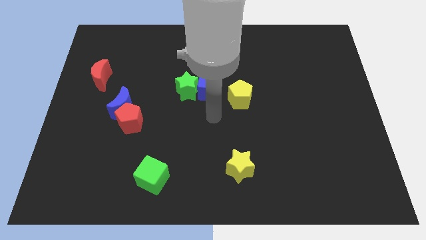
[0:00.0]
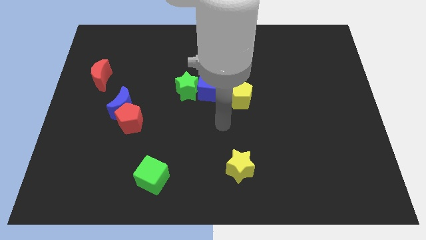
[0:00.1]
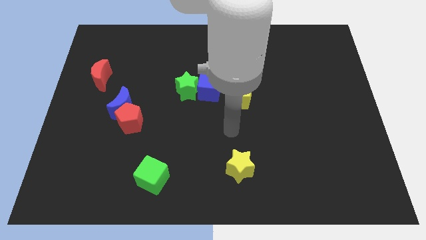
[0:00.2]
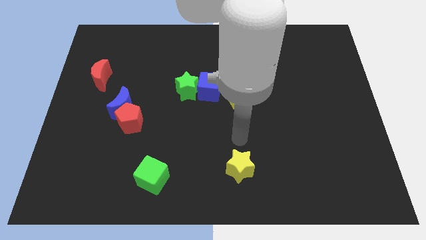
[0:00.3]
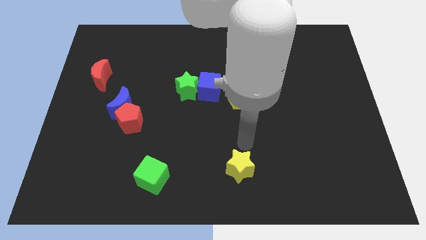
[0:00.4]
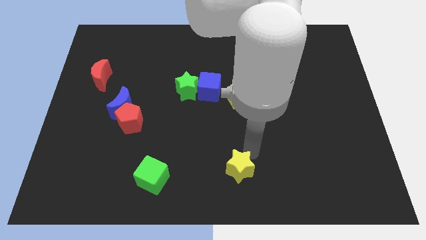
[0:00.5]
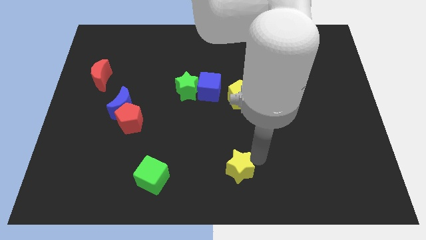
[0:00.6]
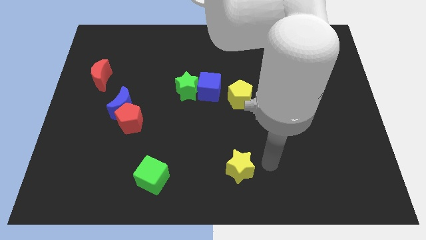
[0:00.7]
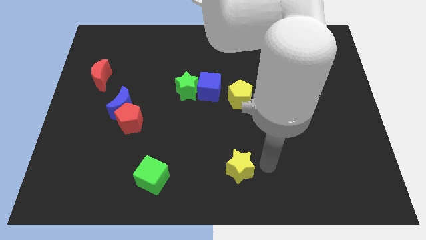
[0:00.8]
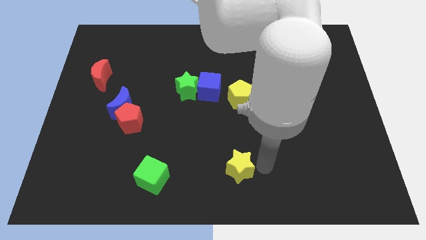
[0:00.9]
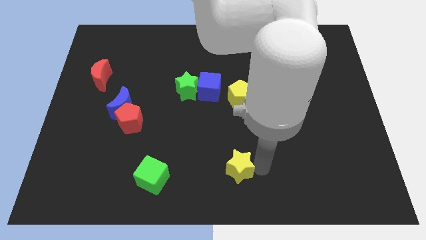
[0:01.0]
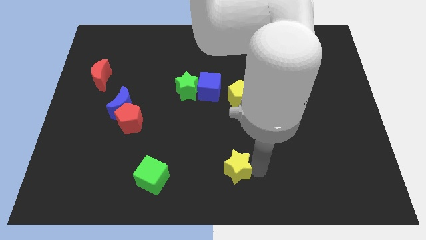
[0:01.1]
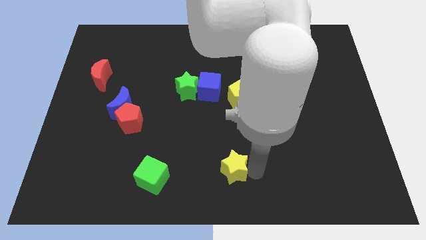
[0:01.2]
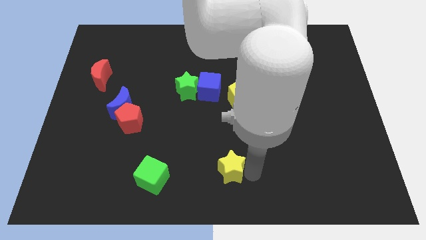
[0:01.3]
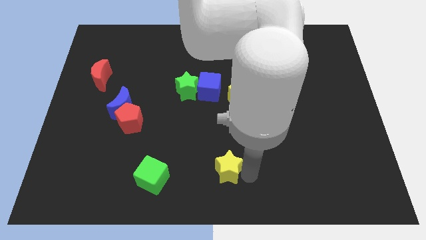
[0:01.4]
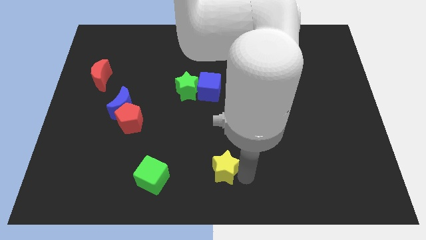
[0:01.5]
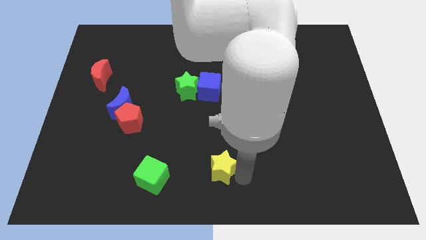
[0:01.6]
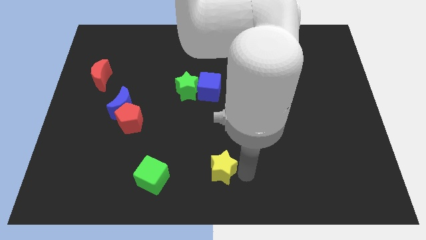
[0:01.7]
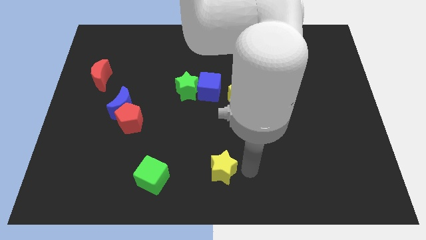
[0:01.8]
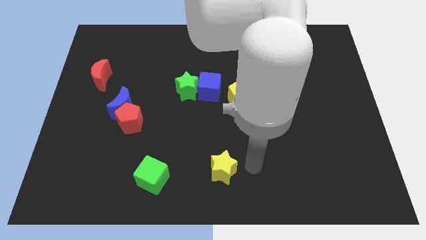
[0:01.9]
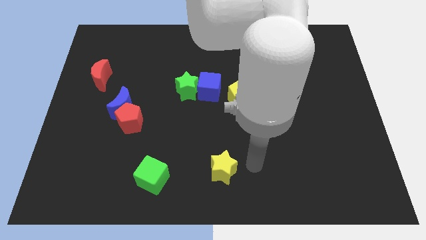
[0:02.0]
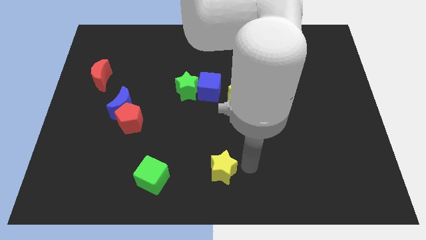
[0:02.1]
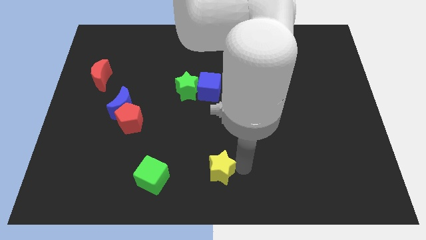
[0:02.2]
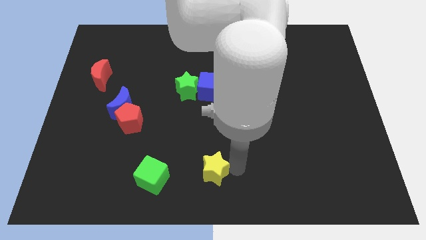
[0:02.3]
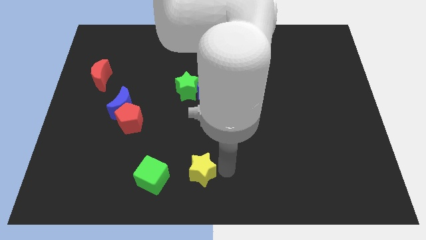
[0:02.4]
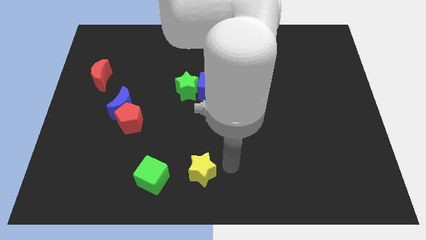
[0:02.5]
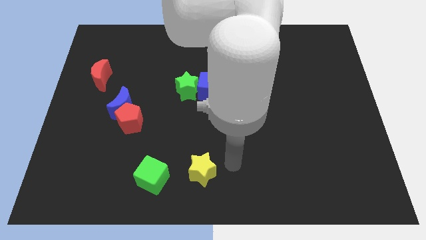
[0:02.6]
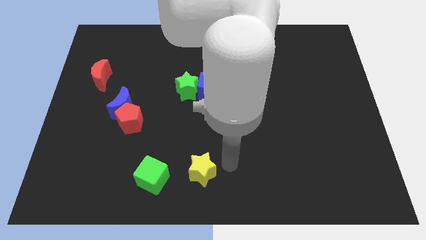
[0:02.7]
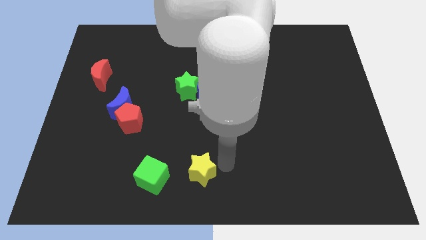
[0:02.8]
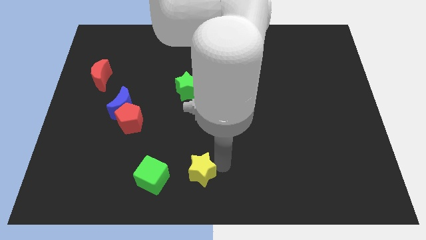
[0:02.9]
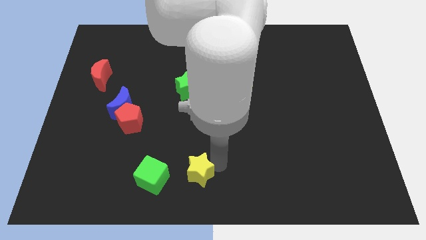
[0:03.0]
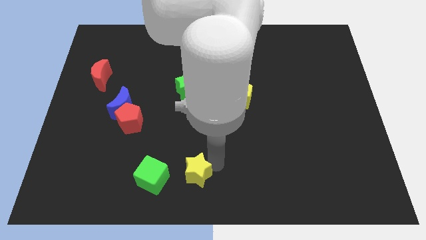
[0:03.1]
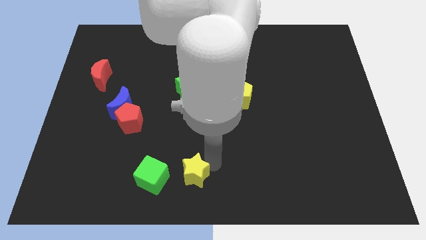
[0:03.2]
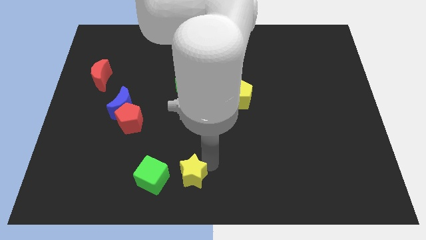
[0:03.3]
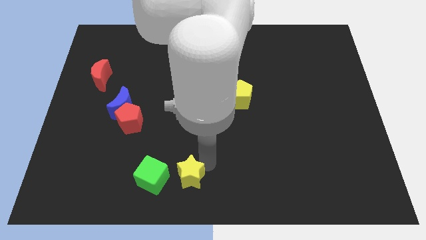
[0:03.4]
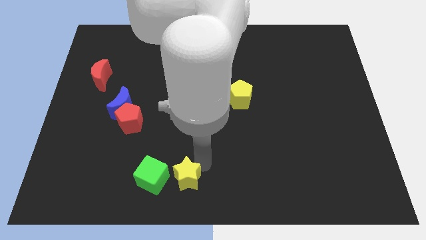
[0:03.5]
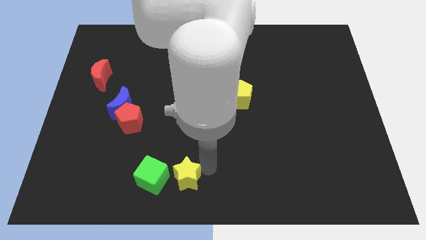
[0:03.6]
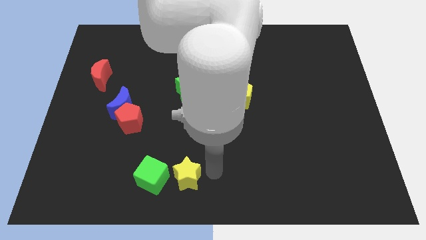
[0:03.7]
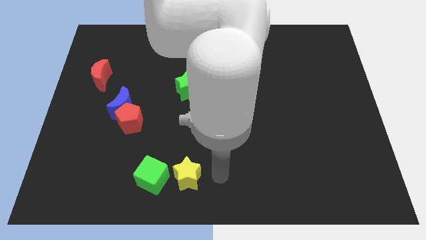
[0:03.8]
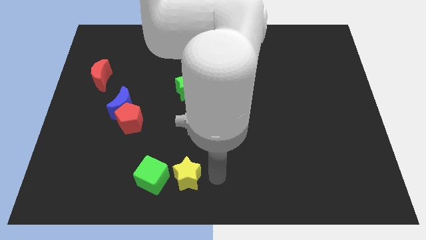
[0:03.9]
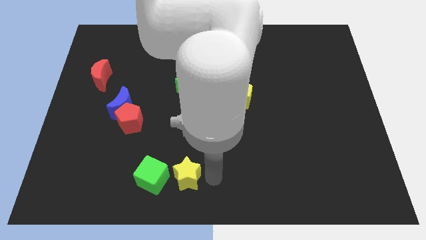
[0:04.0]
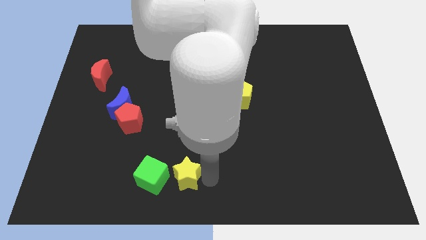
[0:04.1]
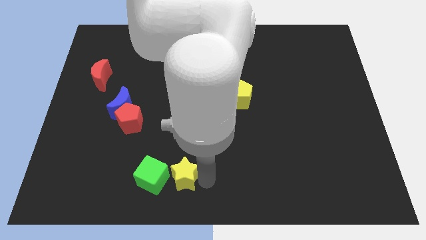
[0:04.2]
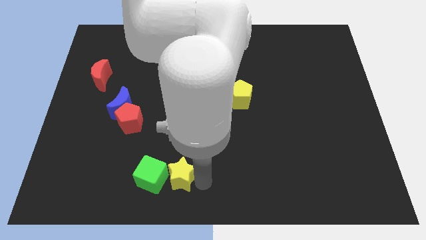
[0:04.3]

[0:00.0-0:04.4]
move the yellow star to the green cube

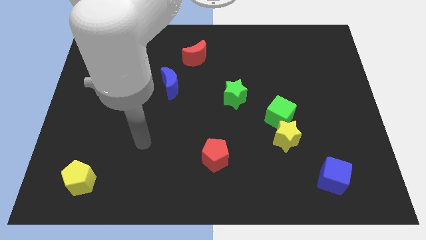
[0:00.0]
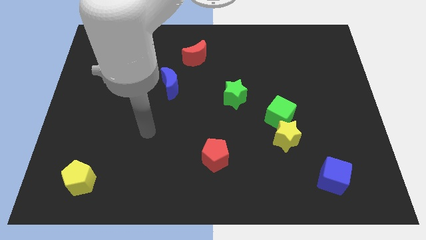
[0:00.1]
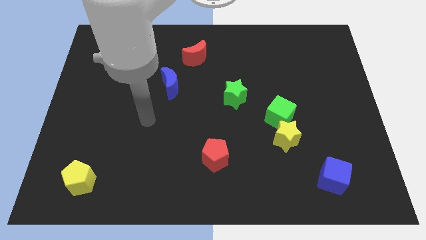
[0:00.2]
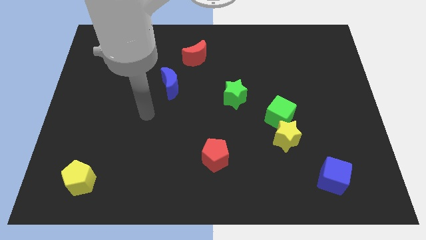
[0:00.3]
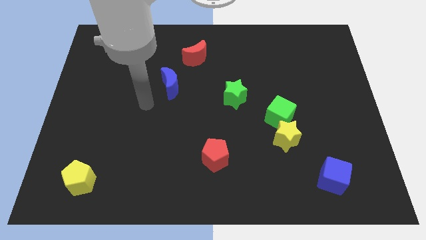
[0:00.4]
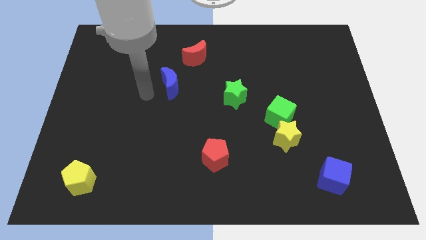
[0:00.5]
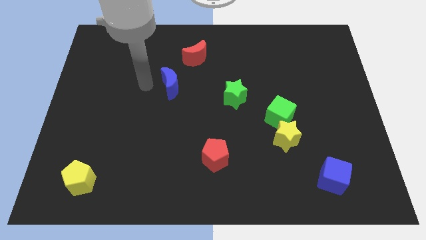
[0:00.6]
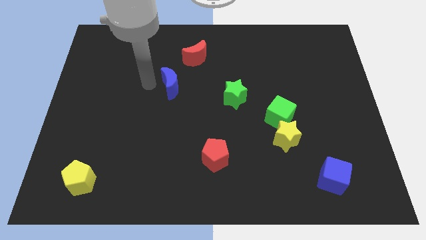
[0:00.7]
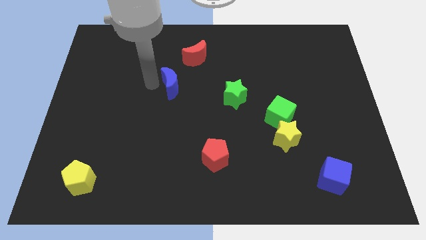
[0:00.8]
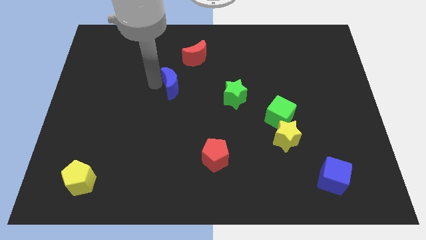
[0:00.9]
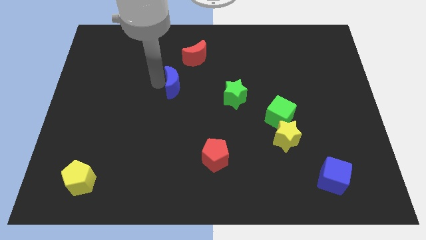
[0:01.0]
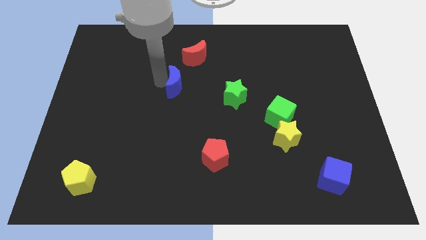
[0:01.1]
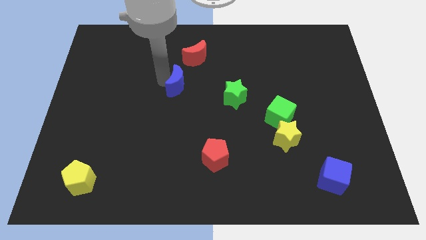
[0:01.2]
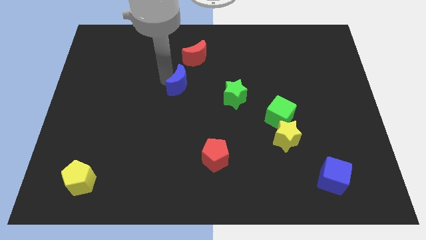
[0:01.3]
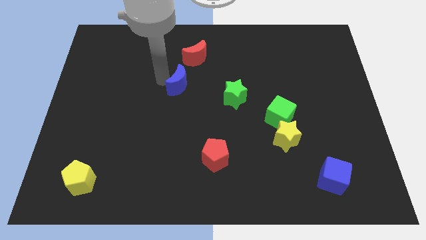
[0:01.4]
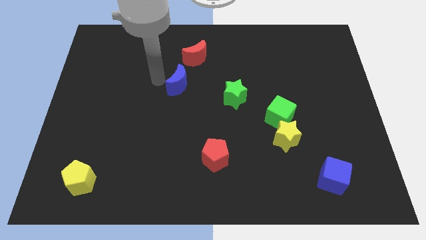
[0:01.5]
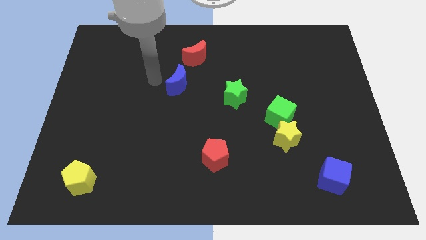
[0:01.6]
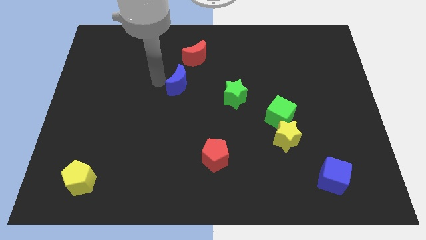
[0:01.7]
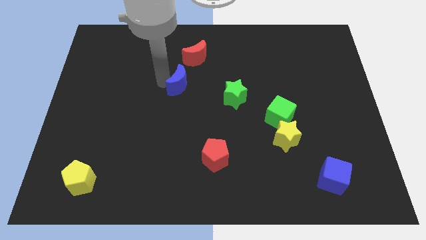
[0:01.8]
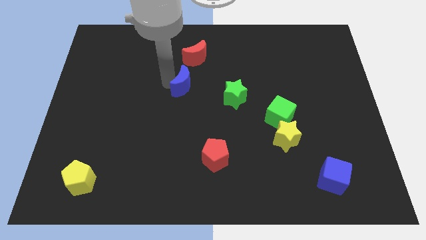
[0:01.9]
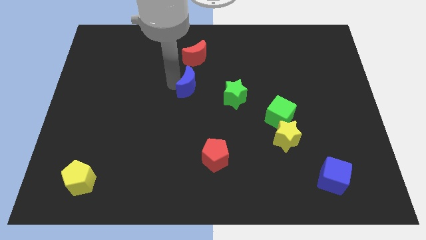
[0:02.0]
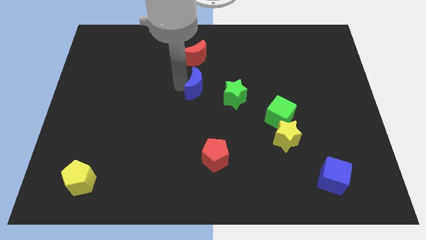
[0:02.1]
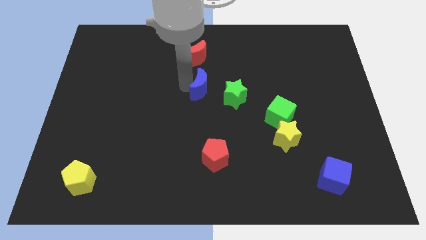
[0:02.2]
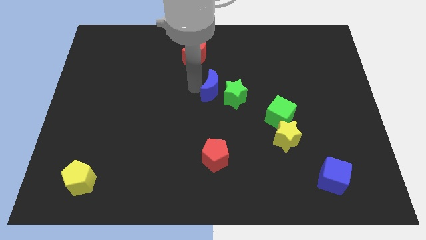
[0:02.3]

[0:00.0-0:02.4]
put the blue moon towards the green star

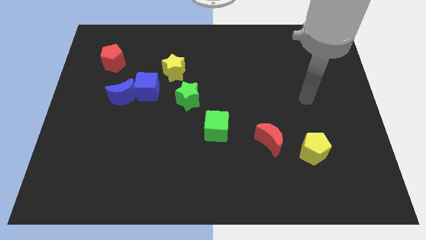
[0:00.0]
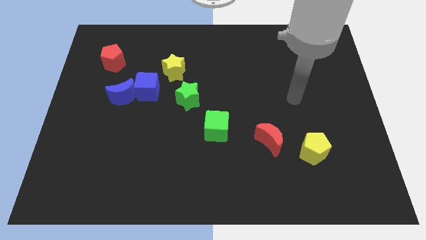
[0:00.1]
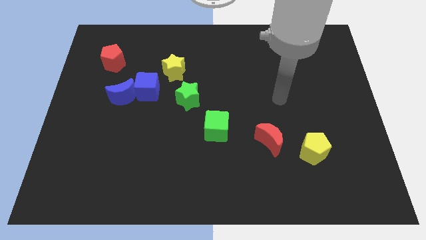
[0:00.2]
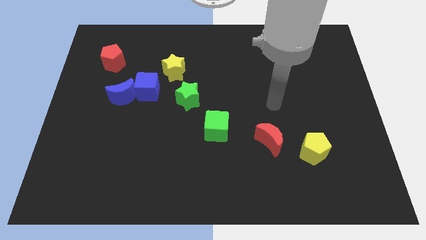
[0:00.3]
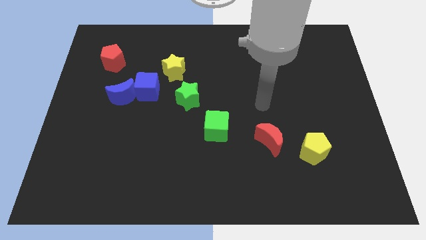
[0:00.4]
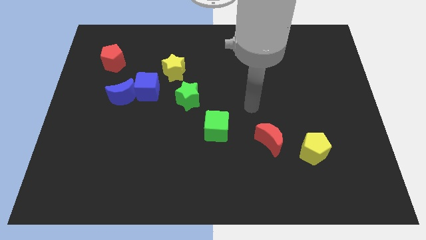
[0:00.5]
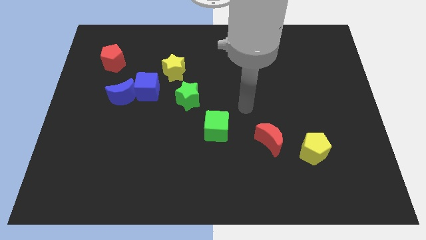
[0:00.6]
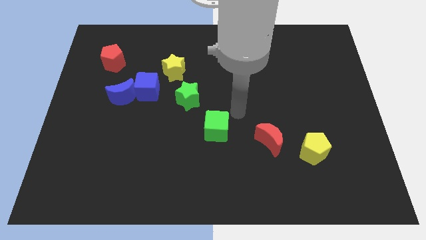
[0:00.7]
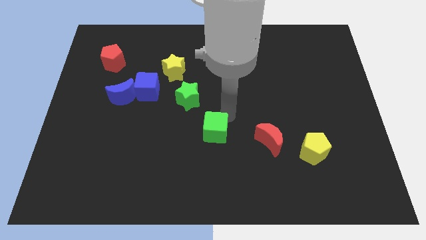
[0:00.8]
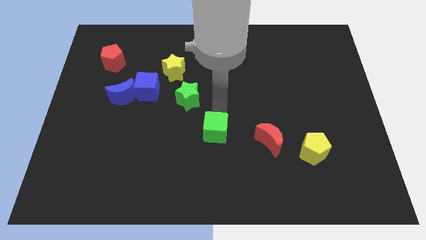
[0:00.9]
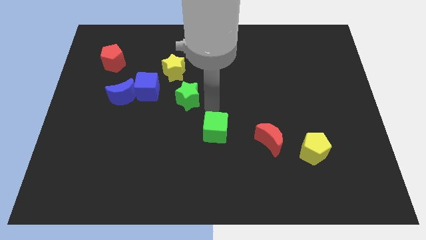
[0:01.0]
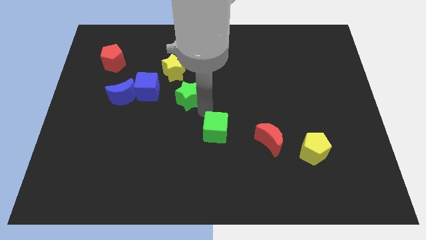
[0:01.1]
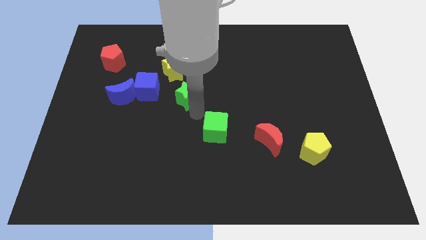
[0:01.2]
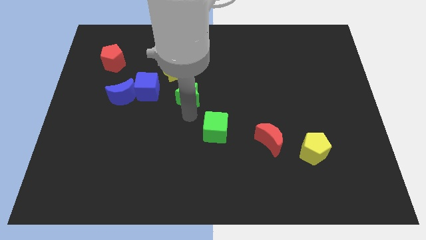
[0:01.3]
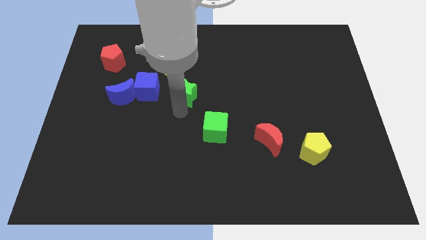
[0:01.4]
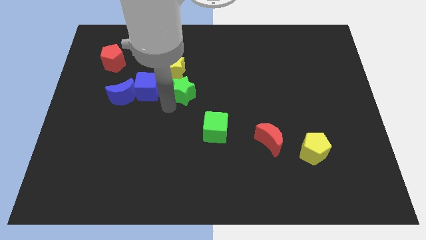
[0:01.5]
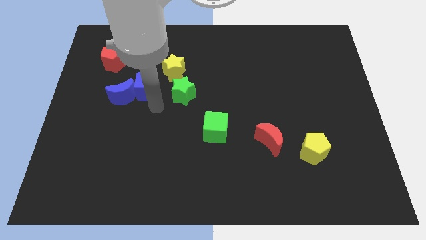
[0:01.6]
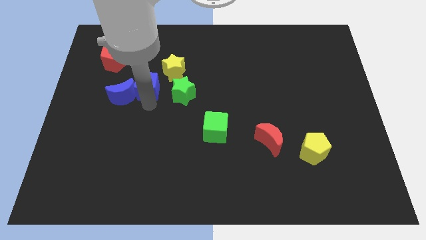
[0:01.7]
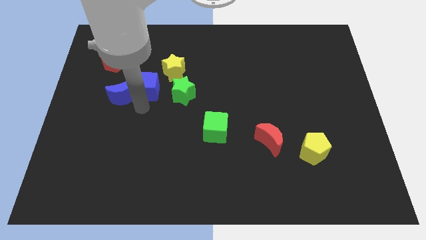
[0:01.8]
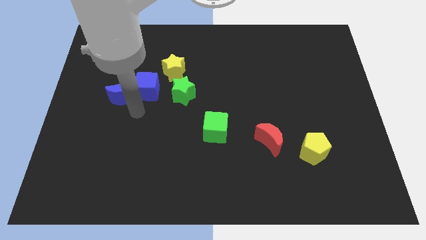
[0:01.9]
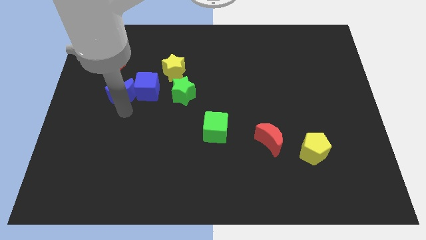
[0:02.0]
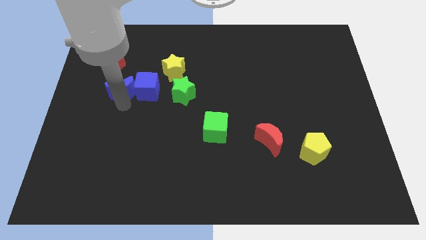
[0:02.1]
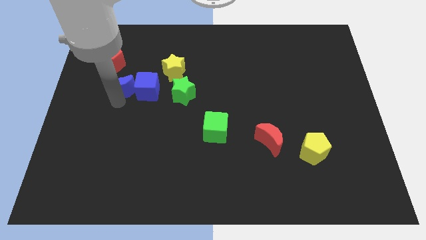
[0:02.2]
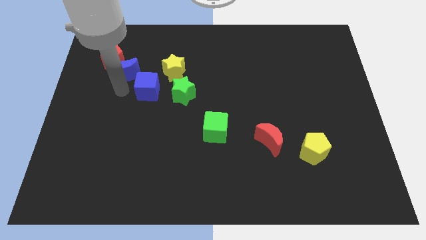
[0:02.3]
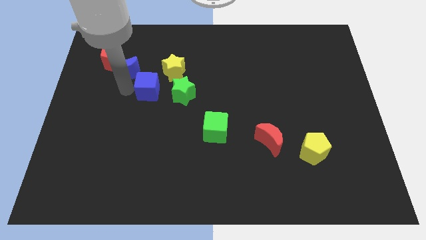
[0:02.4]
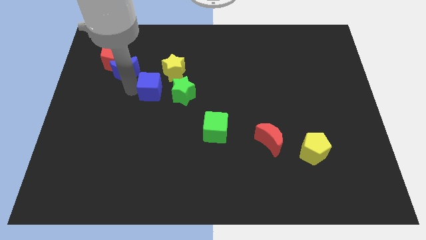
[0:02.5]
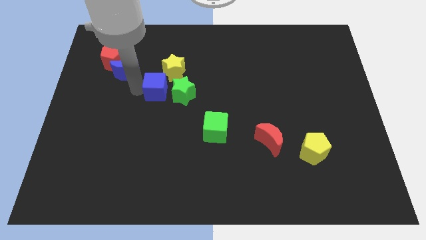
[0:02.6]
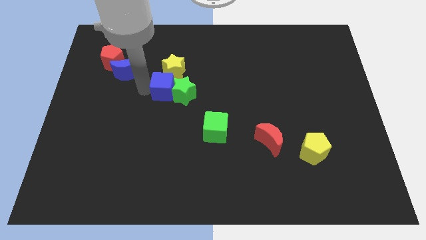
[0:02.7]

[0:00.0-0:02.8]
slide the blue cube next to the green star
